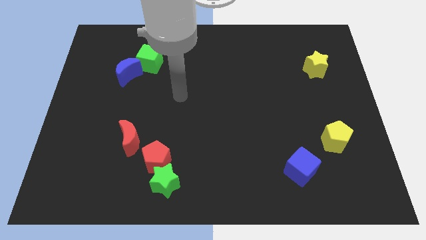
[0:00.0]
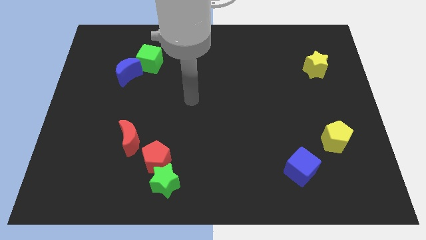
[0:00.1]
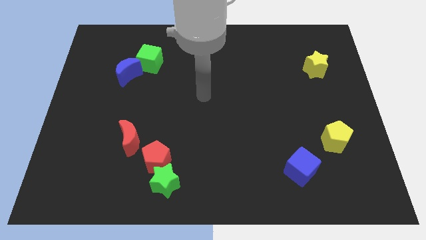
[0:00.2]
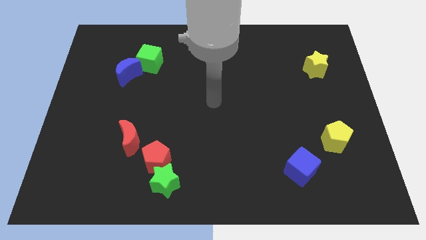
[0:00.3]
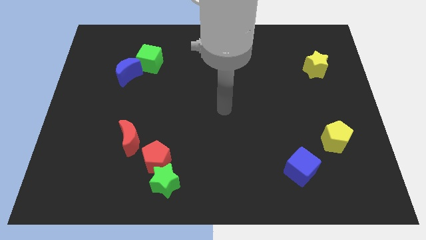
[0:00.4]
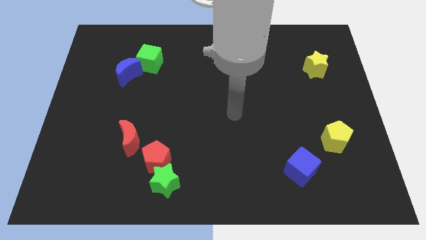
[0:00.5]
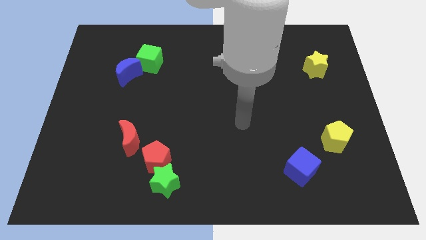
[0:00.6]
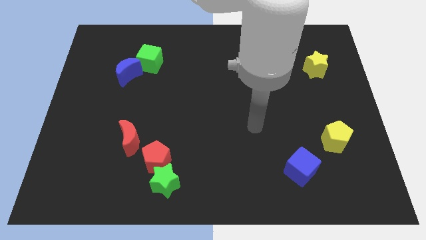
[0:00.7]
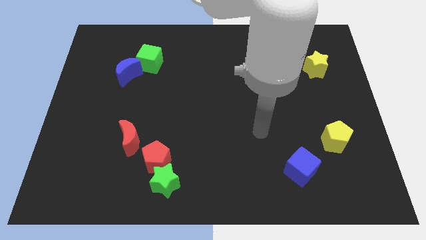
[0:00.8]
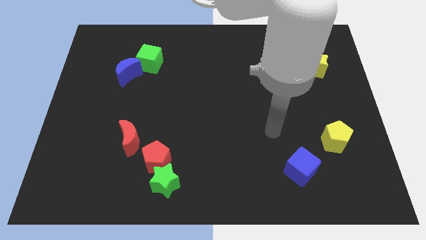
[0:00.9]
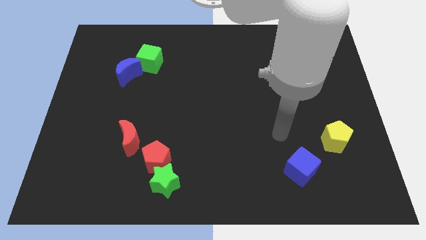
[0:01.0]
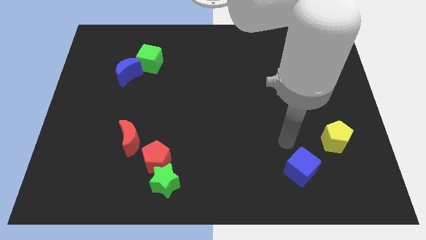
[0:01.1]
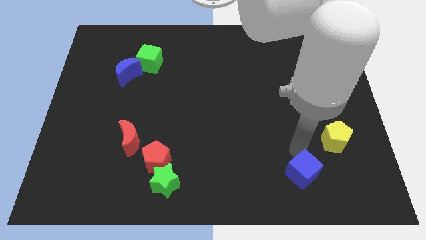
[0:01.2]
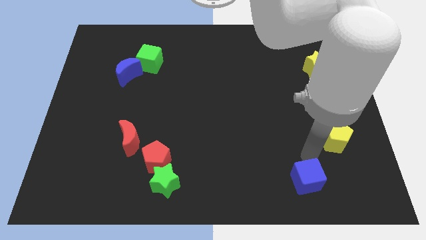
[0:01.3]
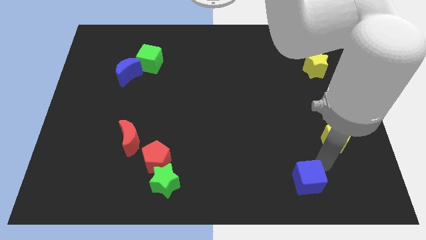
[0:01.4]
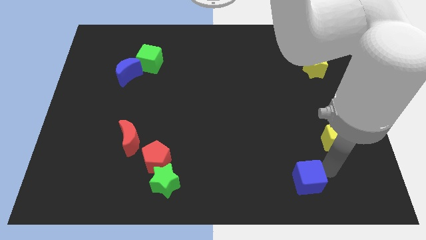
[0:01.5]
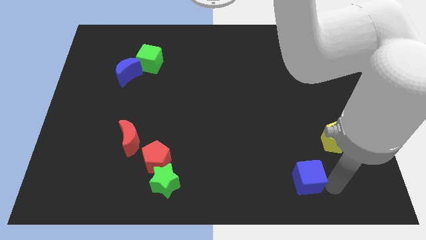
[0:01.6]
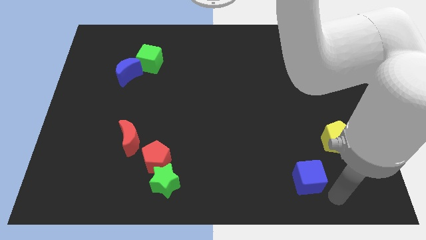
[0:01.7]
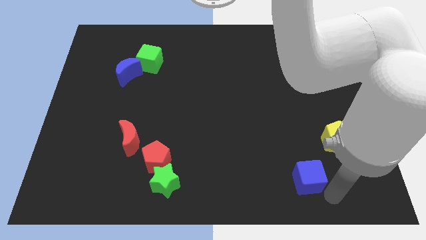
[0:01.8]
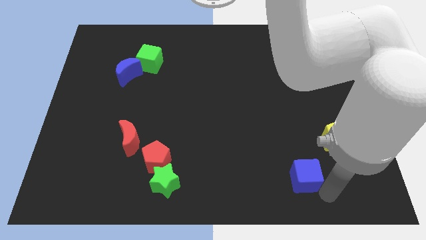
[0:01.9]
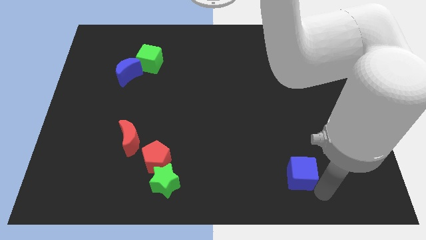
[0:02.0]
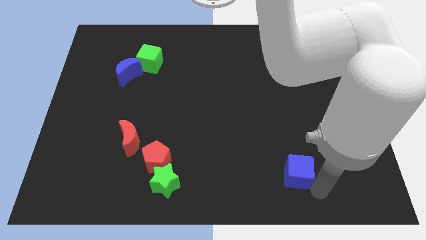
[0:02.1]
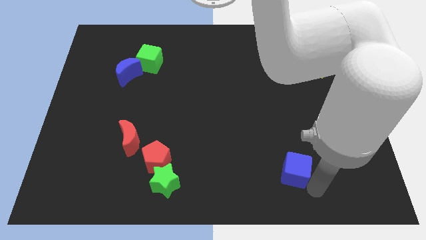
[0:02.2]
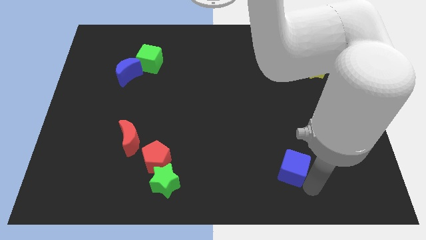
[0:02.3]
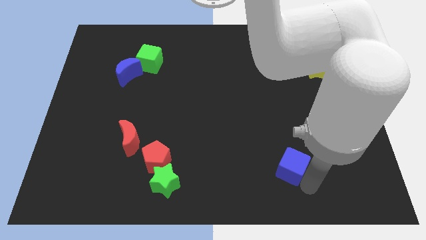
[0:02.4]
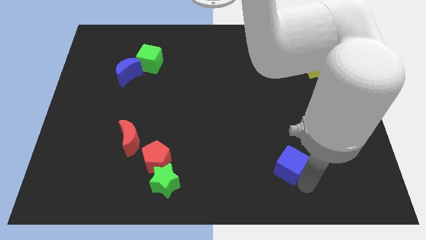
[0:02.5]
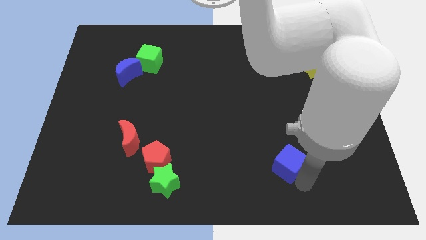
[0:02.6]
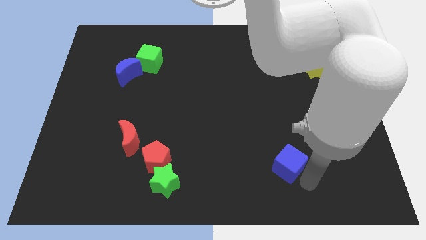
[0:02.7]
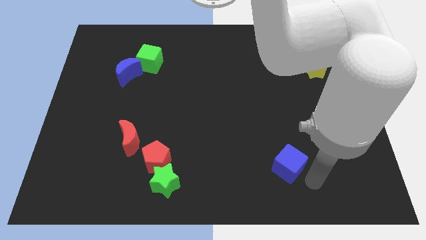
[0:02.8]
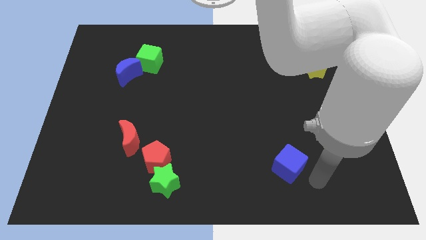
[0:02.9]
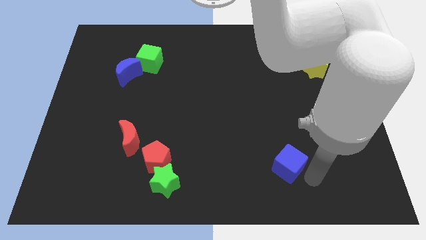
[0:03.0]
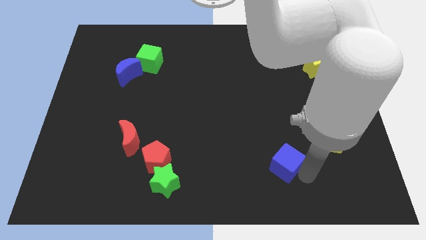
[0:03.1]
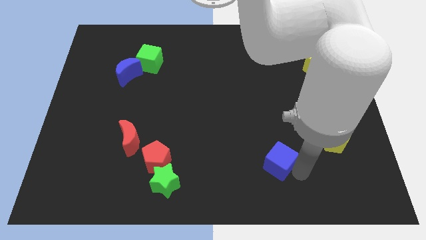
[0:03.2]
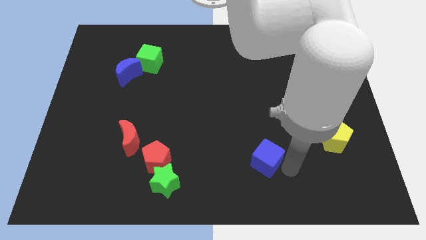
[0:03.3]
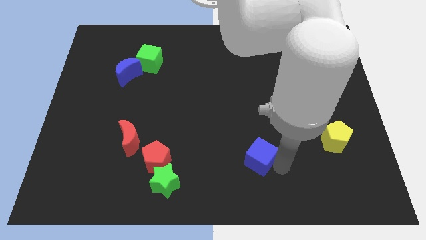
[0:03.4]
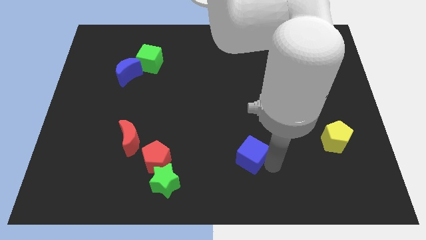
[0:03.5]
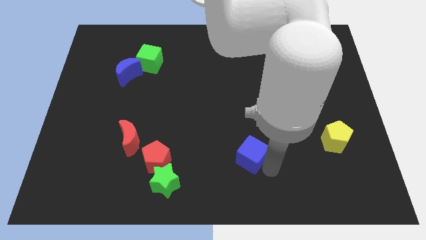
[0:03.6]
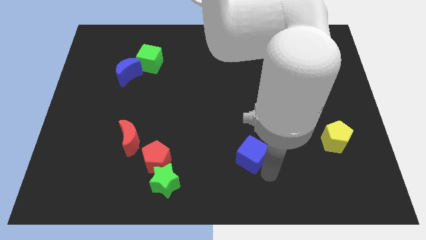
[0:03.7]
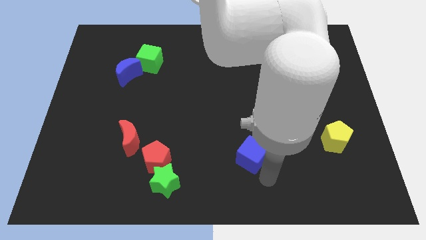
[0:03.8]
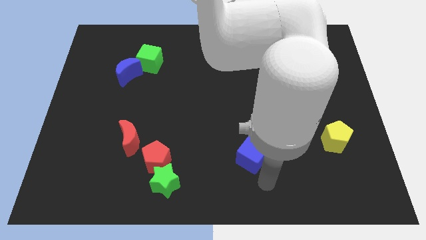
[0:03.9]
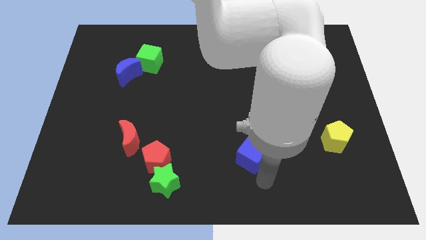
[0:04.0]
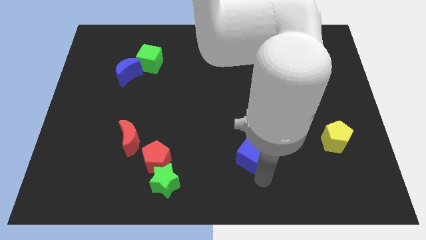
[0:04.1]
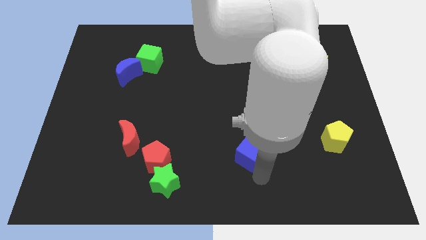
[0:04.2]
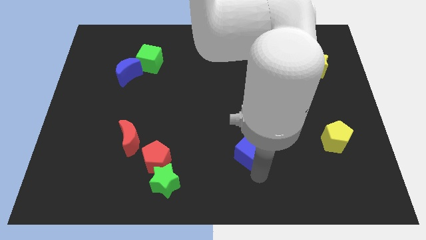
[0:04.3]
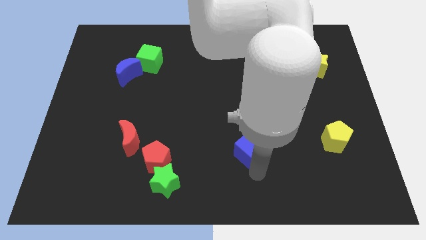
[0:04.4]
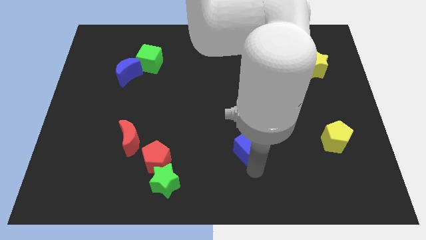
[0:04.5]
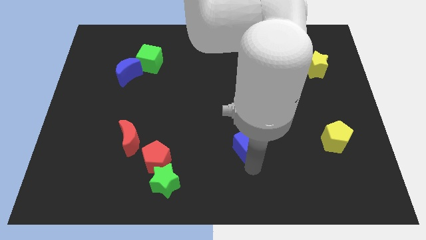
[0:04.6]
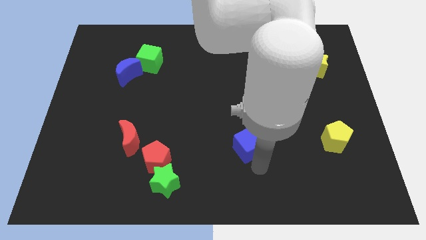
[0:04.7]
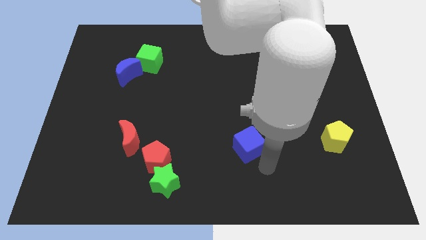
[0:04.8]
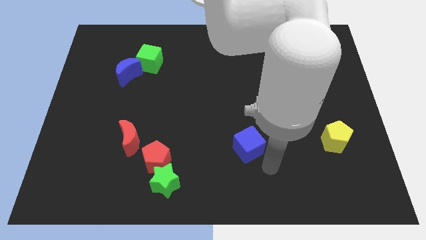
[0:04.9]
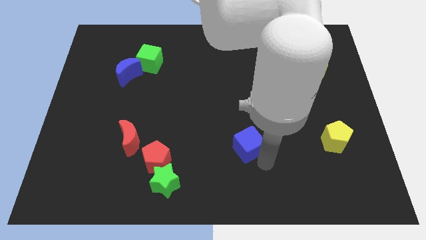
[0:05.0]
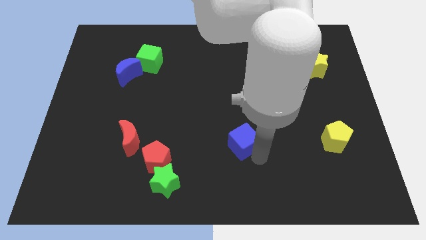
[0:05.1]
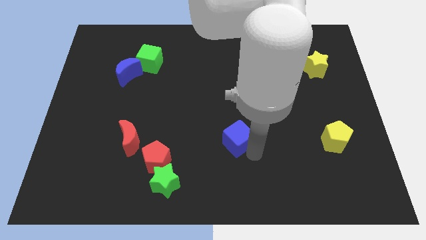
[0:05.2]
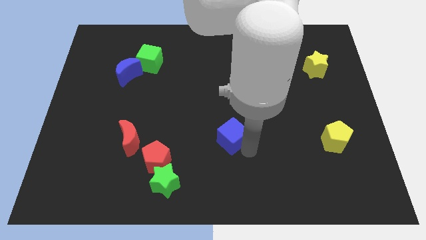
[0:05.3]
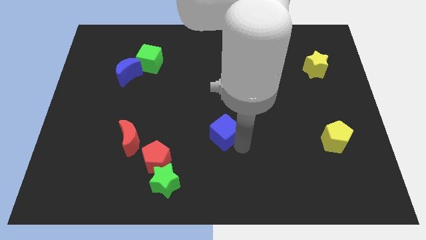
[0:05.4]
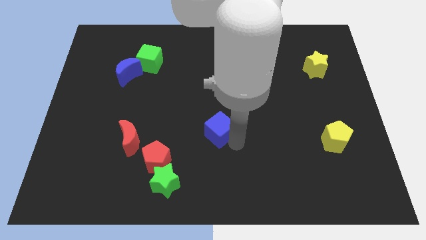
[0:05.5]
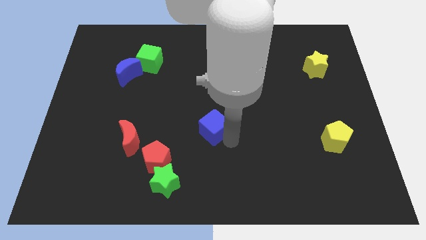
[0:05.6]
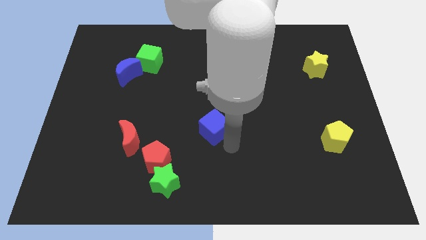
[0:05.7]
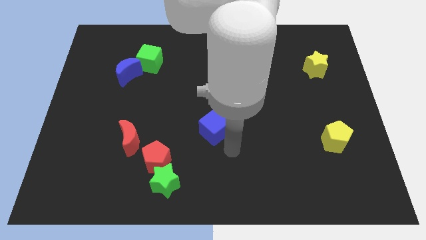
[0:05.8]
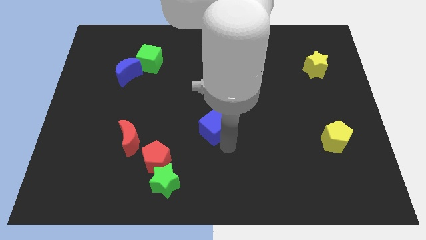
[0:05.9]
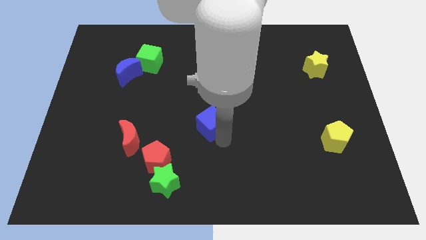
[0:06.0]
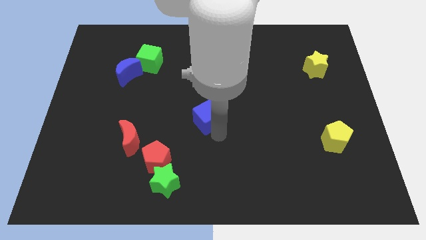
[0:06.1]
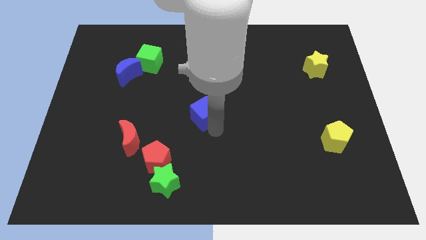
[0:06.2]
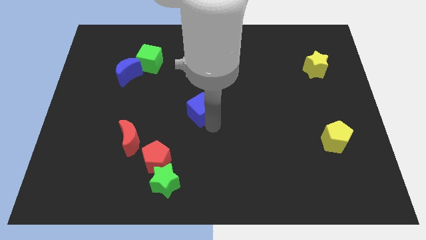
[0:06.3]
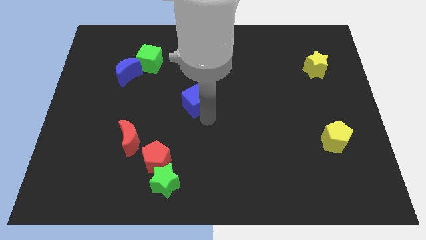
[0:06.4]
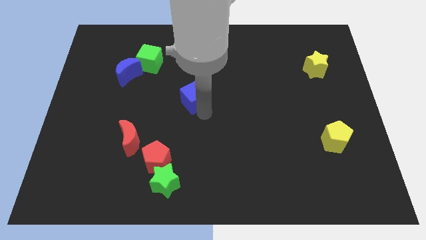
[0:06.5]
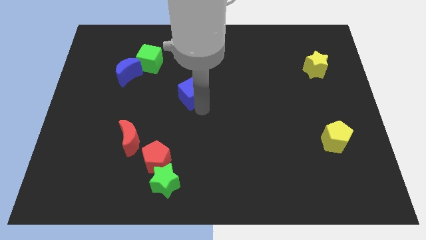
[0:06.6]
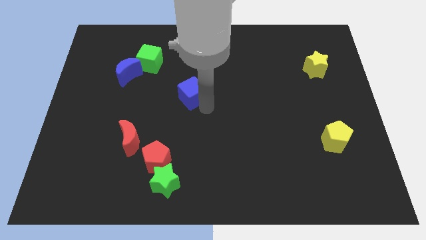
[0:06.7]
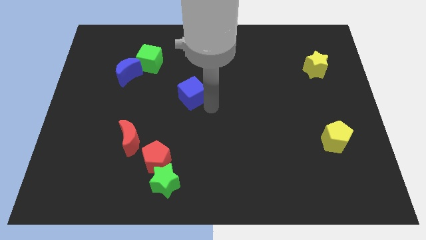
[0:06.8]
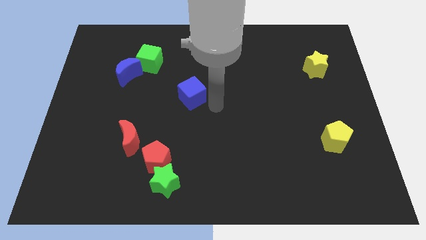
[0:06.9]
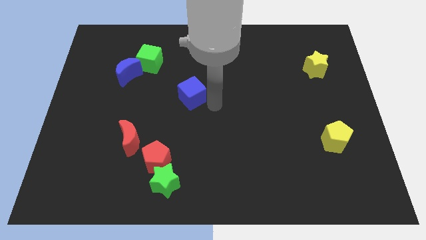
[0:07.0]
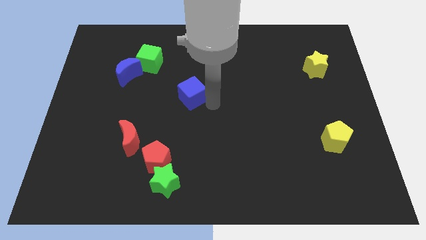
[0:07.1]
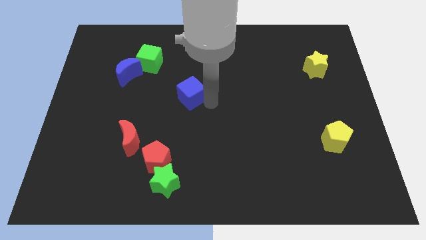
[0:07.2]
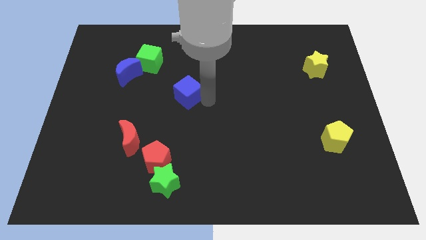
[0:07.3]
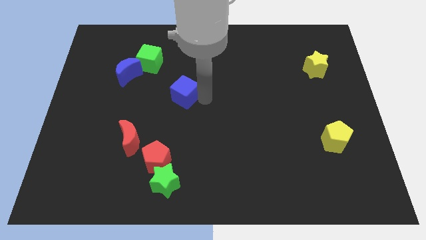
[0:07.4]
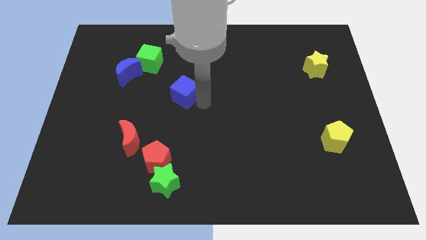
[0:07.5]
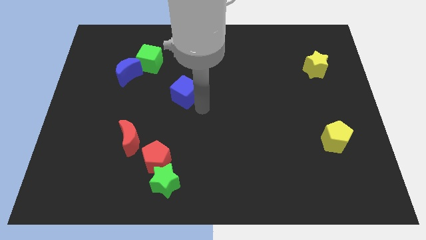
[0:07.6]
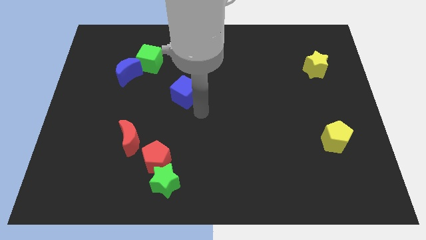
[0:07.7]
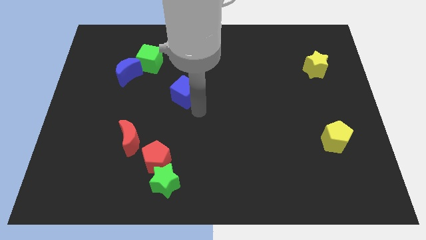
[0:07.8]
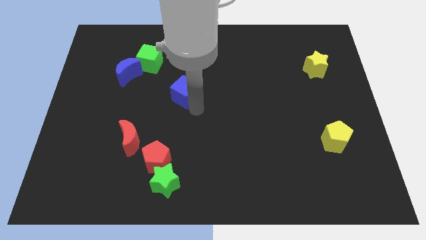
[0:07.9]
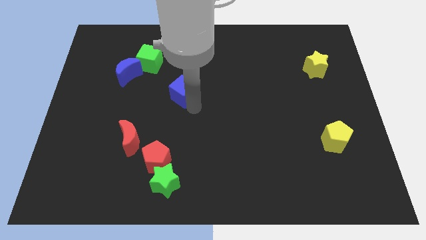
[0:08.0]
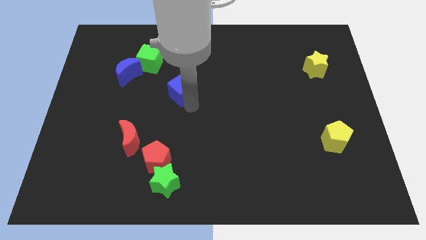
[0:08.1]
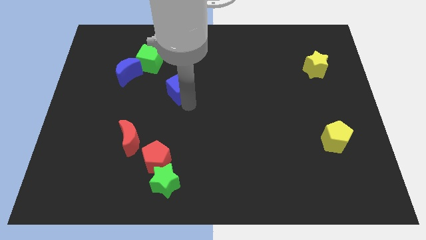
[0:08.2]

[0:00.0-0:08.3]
push the blue cube to the bottom right side of the green cube
